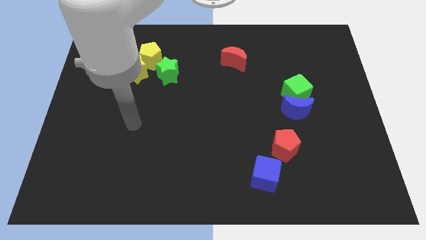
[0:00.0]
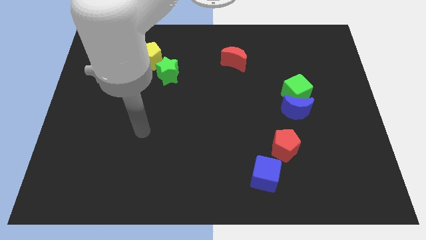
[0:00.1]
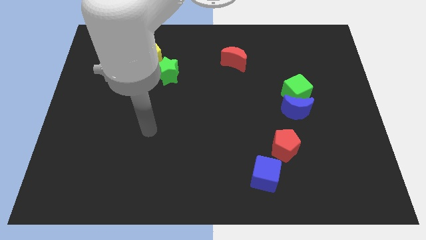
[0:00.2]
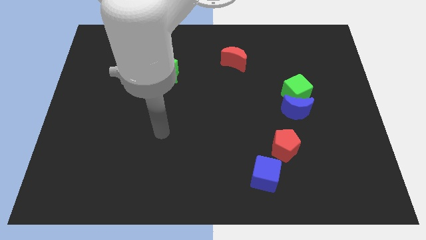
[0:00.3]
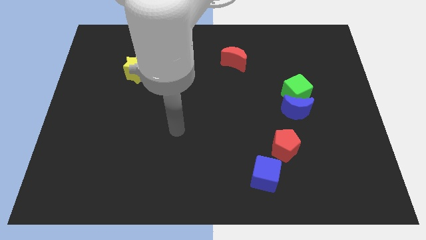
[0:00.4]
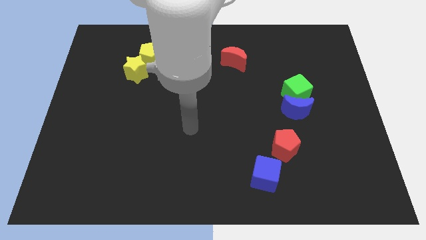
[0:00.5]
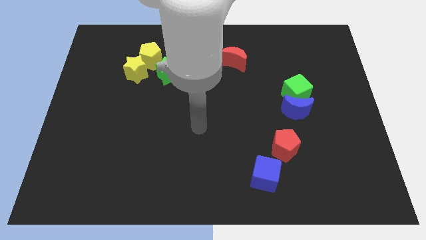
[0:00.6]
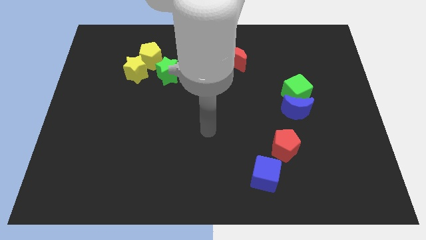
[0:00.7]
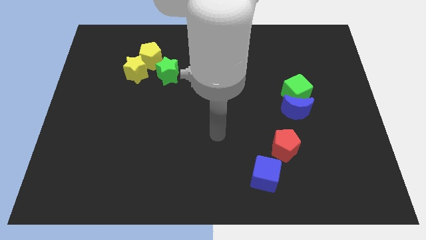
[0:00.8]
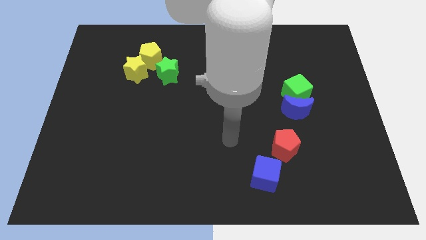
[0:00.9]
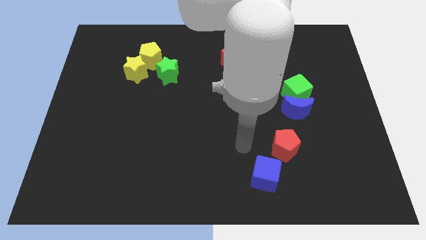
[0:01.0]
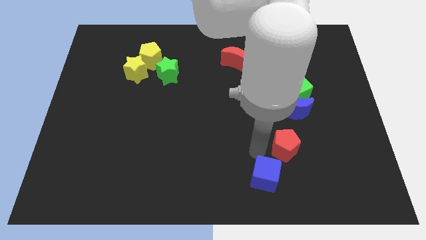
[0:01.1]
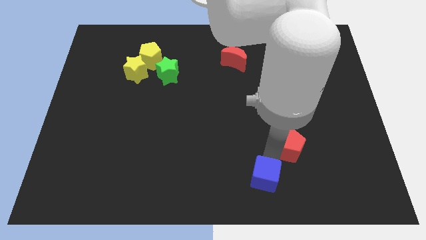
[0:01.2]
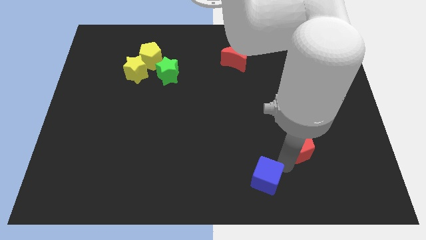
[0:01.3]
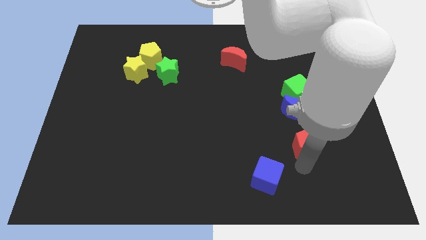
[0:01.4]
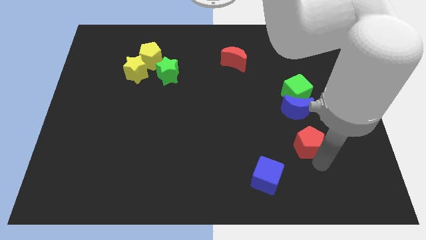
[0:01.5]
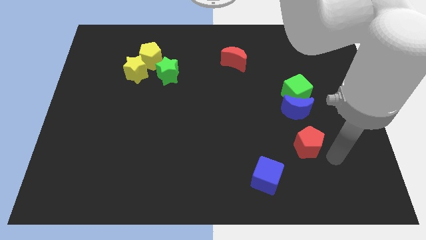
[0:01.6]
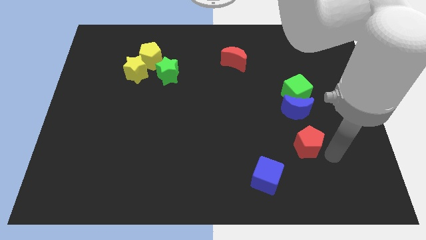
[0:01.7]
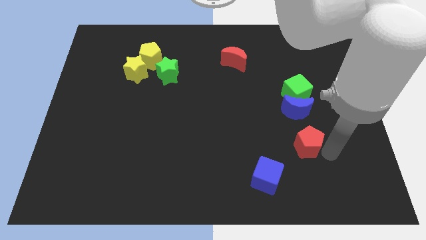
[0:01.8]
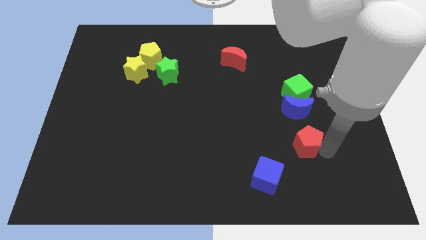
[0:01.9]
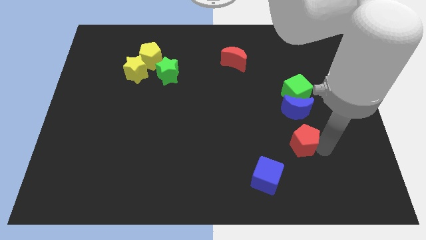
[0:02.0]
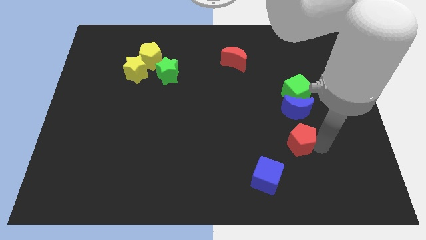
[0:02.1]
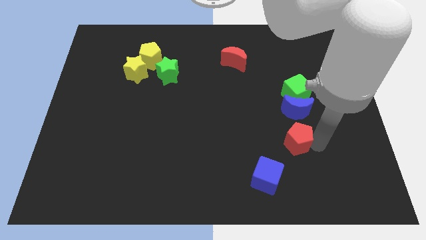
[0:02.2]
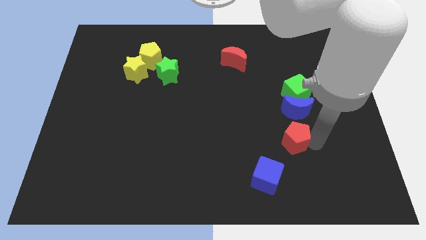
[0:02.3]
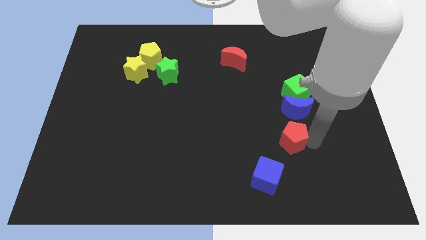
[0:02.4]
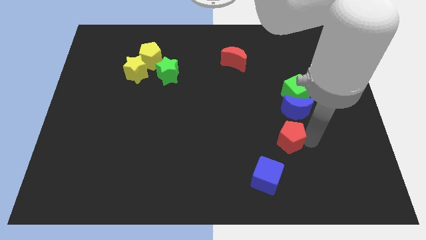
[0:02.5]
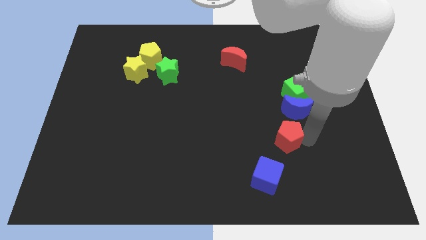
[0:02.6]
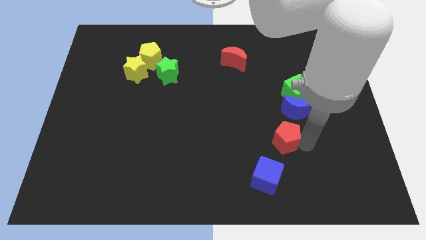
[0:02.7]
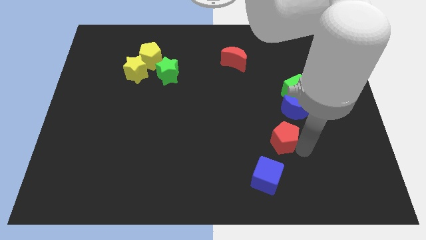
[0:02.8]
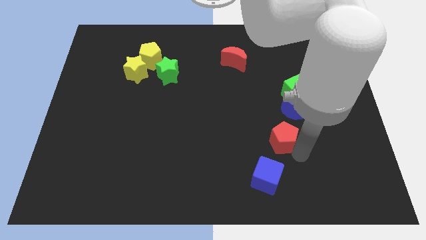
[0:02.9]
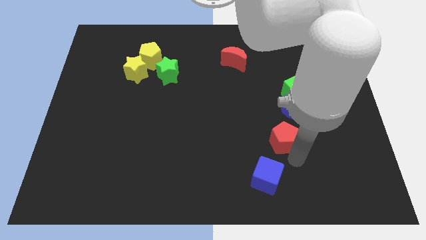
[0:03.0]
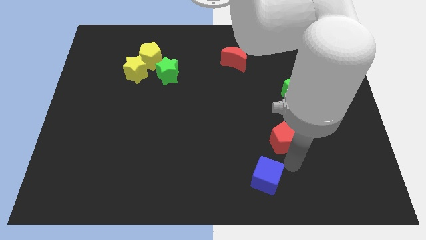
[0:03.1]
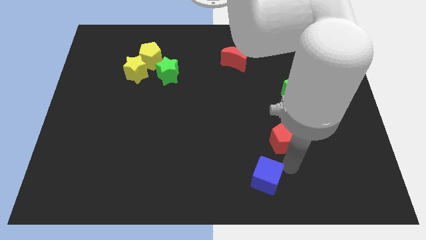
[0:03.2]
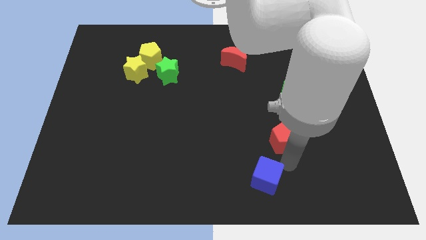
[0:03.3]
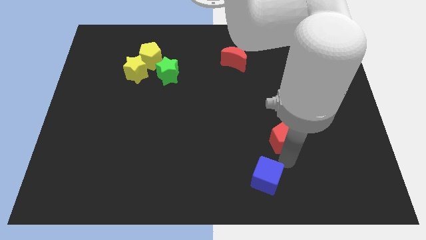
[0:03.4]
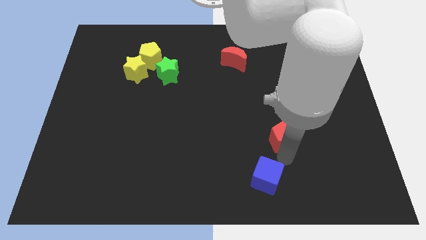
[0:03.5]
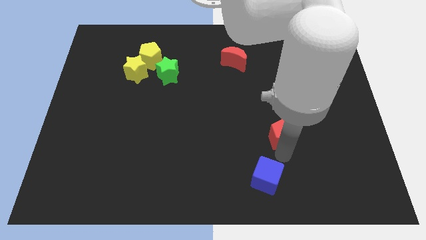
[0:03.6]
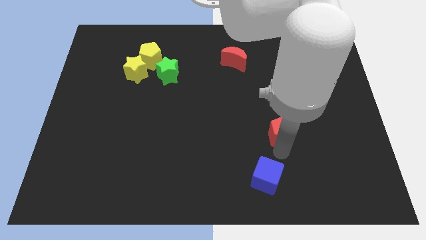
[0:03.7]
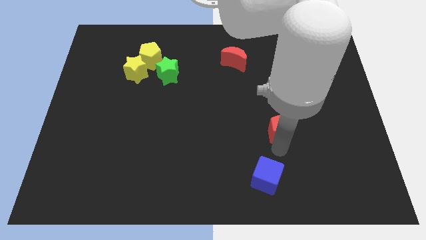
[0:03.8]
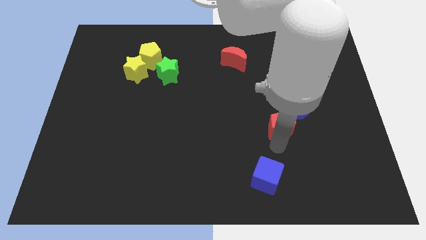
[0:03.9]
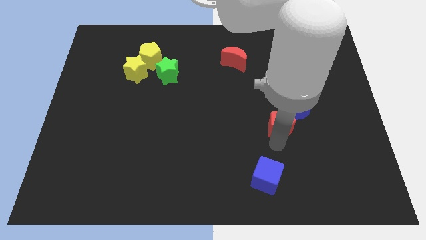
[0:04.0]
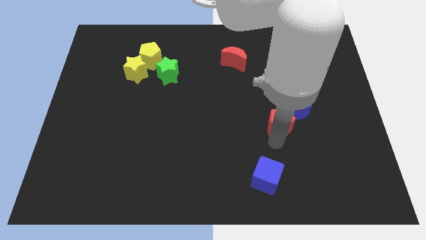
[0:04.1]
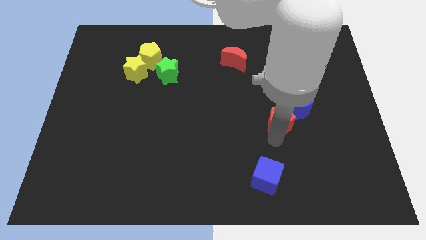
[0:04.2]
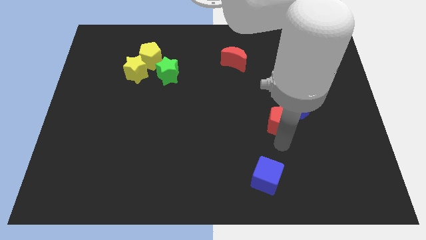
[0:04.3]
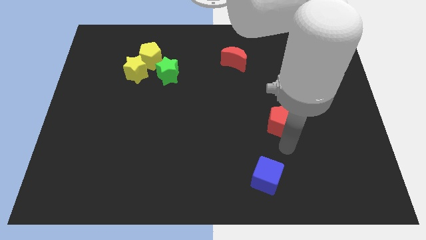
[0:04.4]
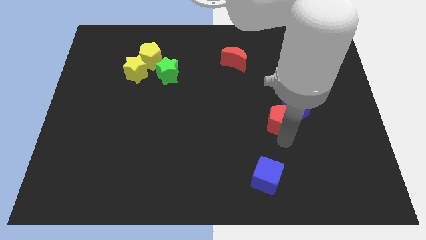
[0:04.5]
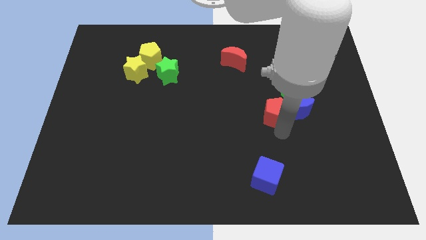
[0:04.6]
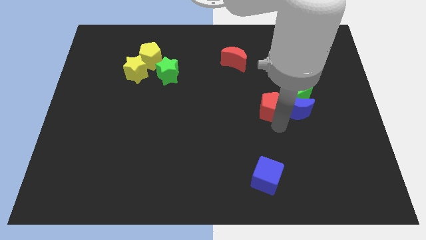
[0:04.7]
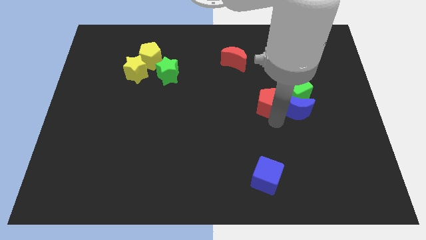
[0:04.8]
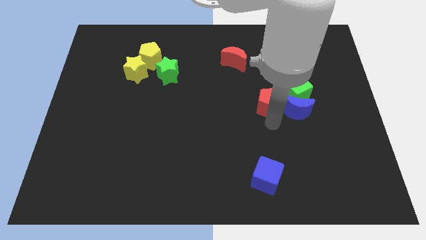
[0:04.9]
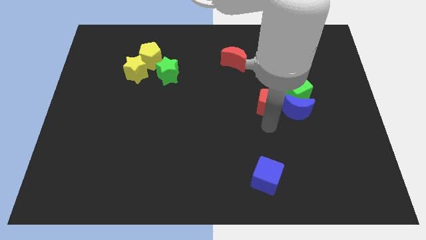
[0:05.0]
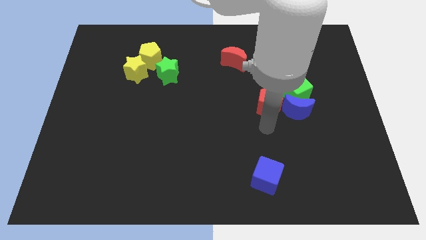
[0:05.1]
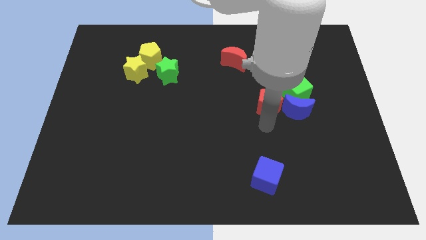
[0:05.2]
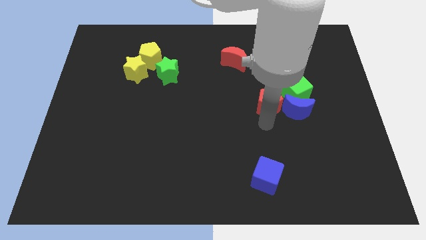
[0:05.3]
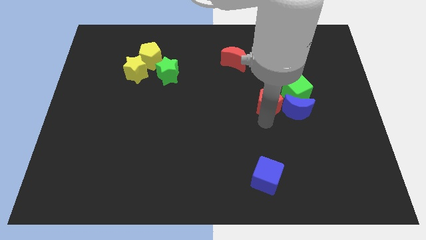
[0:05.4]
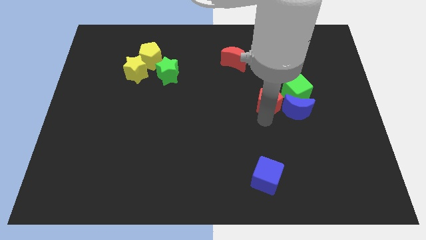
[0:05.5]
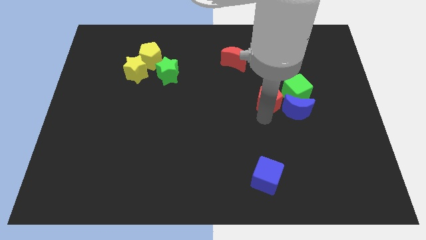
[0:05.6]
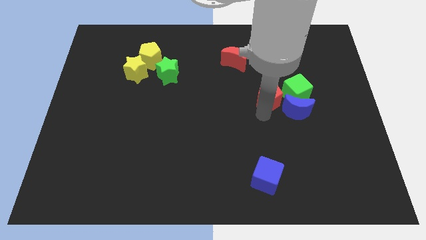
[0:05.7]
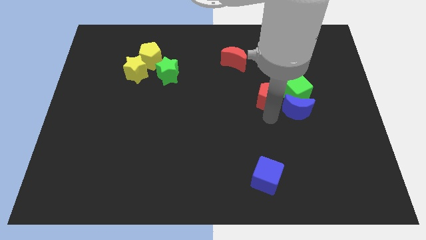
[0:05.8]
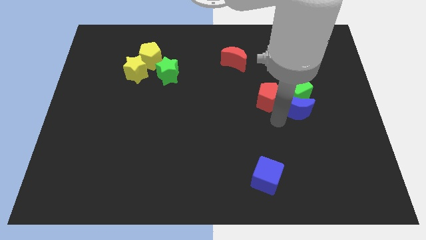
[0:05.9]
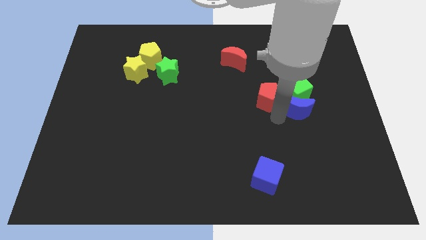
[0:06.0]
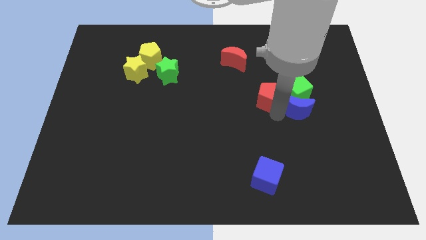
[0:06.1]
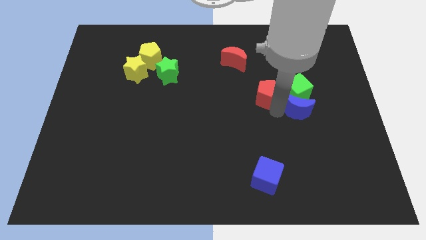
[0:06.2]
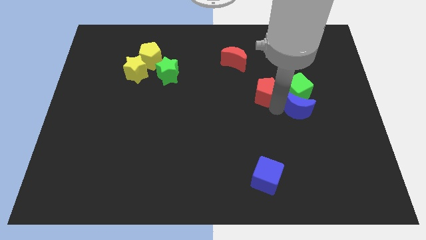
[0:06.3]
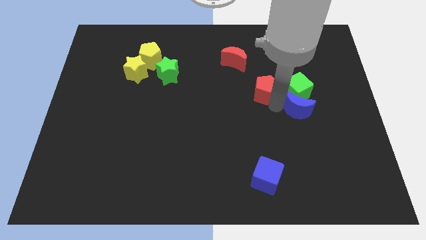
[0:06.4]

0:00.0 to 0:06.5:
slide the red pentagon to the bottom right of the red moon

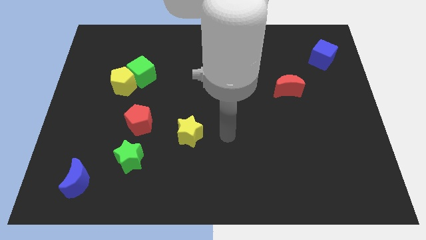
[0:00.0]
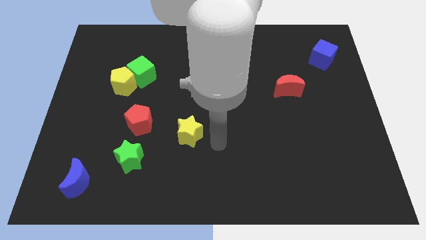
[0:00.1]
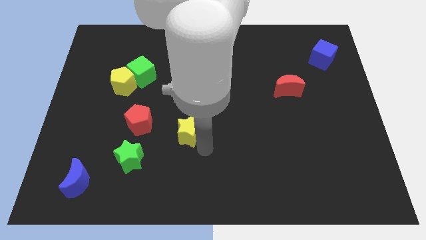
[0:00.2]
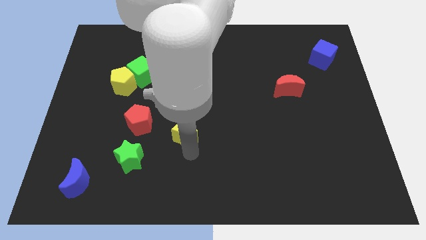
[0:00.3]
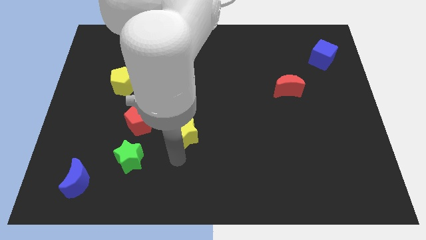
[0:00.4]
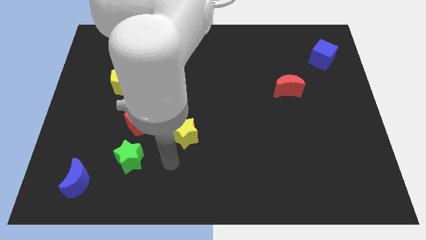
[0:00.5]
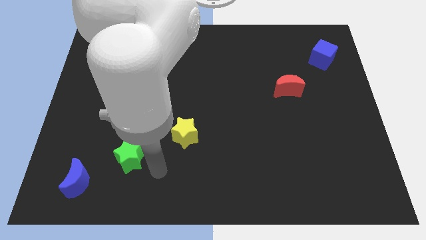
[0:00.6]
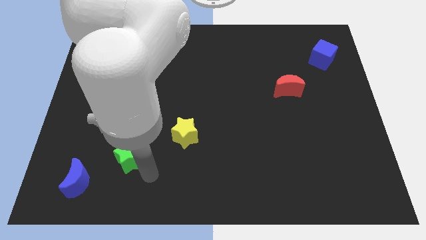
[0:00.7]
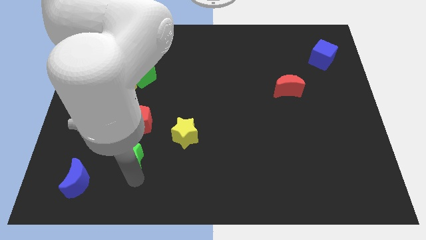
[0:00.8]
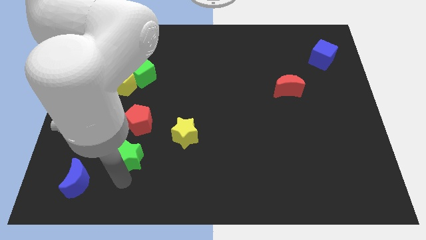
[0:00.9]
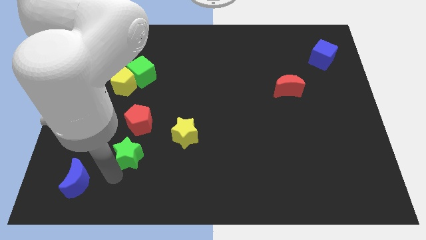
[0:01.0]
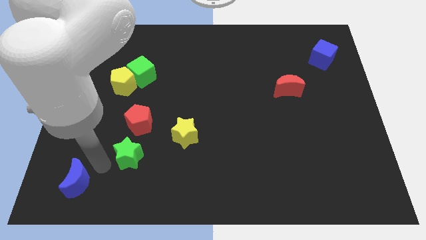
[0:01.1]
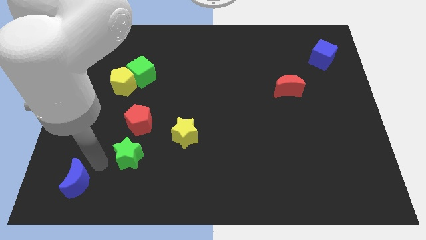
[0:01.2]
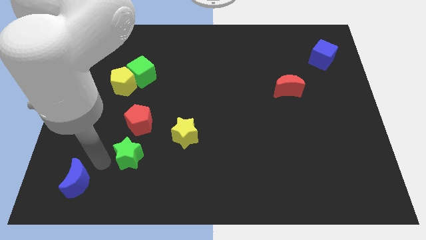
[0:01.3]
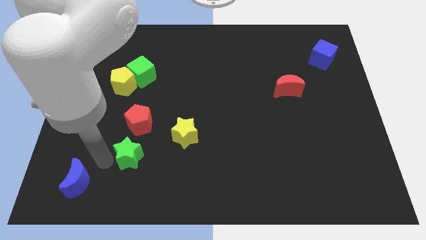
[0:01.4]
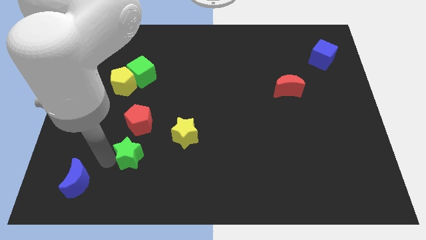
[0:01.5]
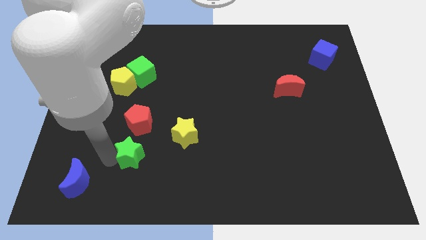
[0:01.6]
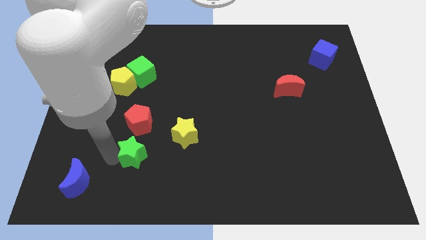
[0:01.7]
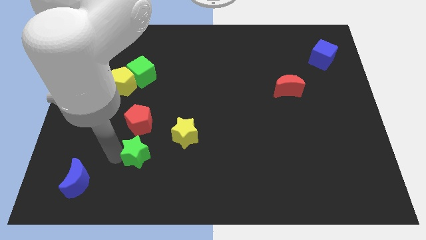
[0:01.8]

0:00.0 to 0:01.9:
put the green star to the bottom left of the yellow star
